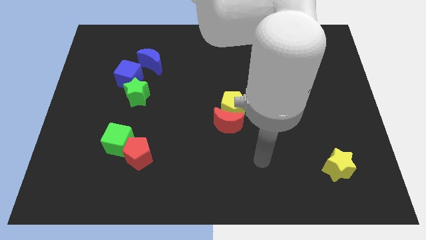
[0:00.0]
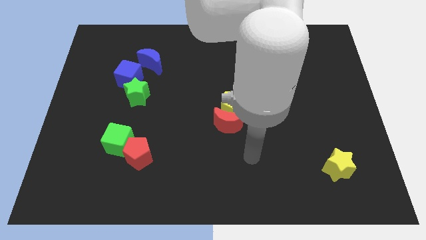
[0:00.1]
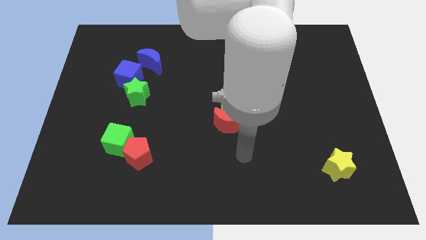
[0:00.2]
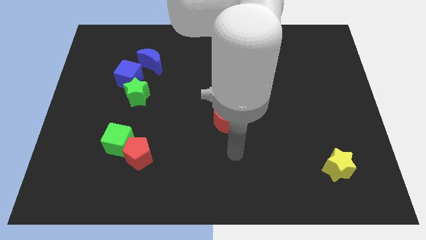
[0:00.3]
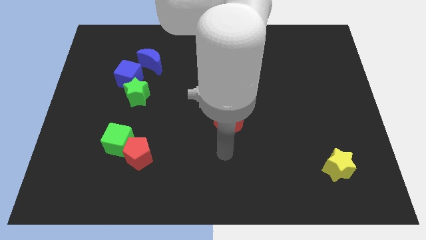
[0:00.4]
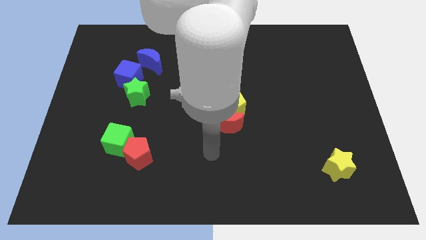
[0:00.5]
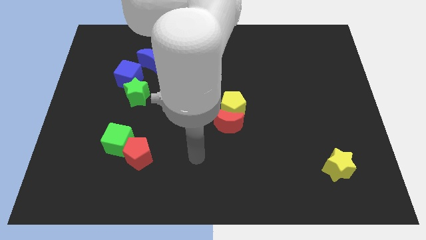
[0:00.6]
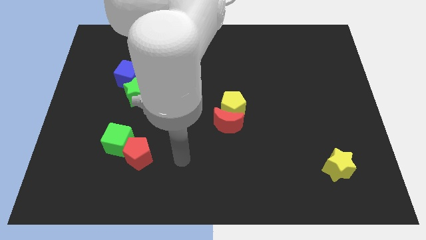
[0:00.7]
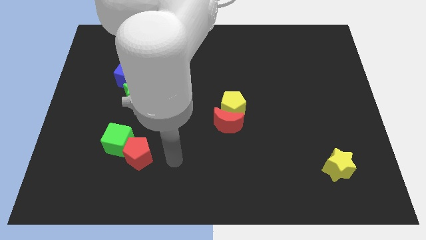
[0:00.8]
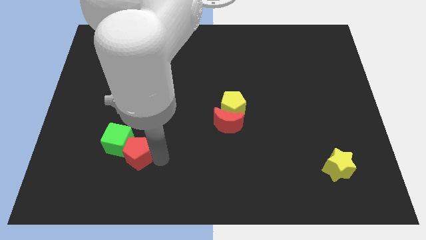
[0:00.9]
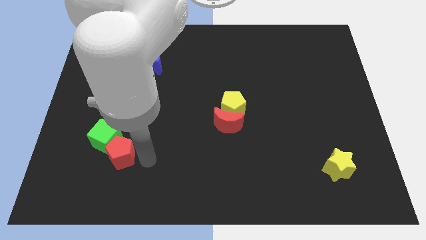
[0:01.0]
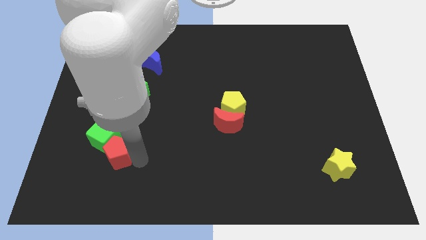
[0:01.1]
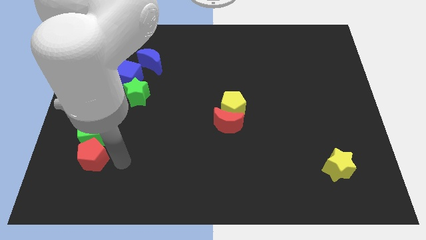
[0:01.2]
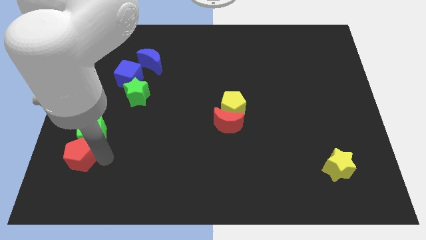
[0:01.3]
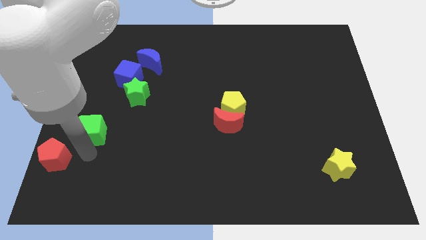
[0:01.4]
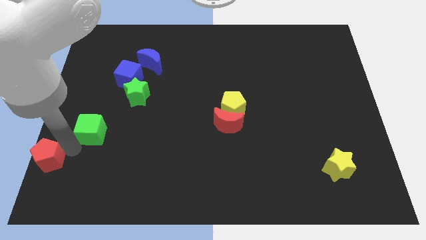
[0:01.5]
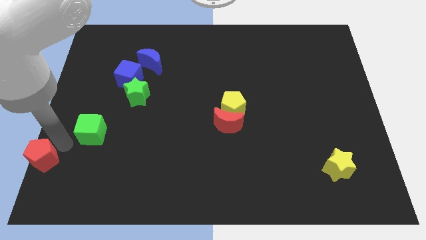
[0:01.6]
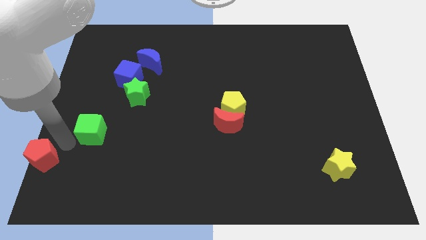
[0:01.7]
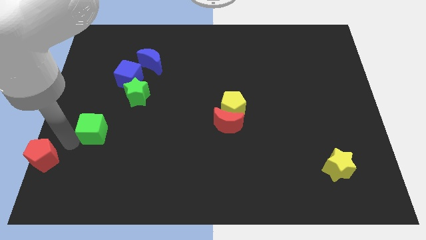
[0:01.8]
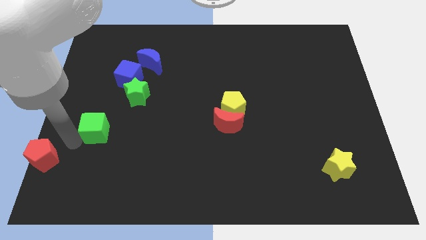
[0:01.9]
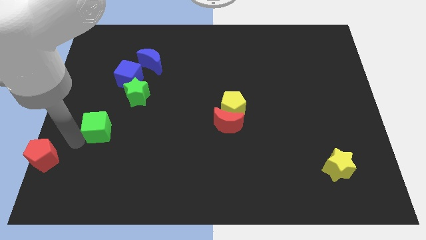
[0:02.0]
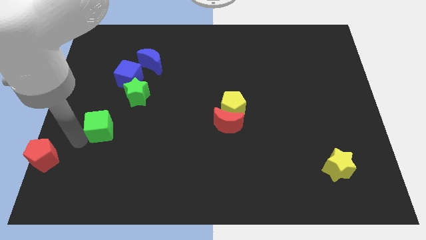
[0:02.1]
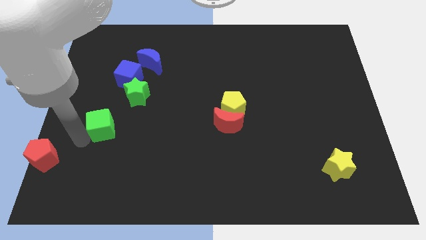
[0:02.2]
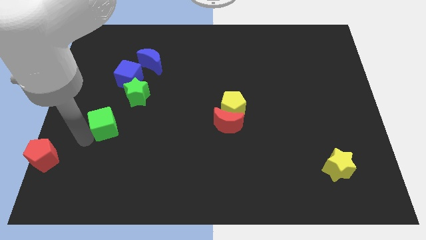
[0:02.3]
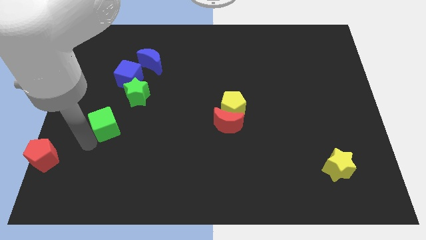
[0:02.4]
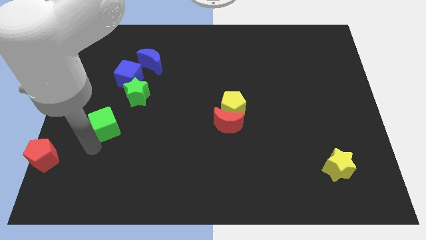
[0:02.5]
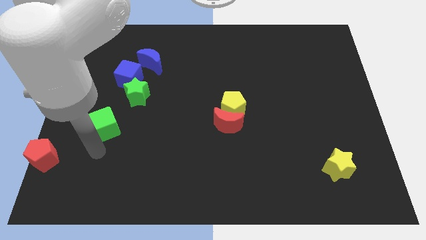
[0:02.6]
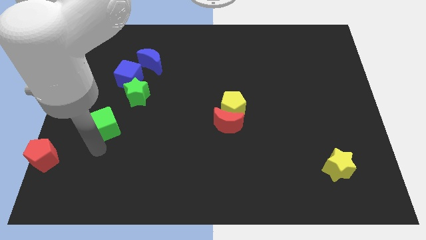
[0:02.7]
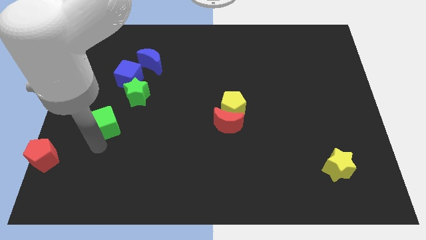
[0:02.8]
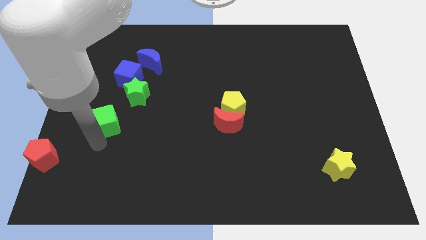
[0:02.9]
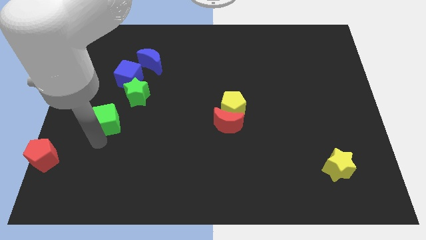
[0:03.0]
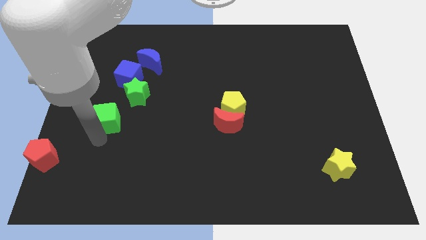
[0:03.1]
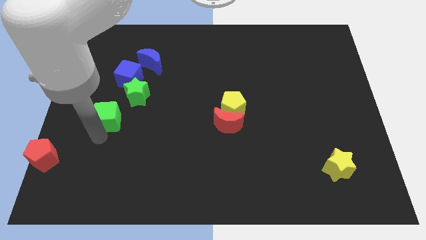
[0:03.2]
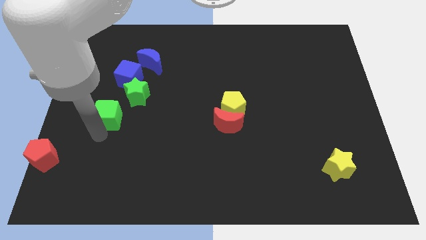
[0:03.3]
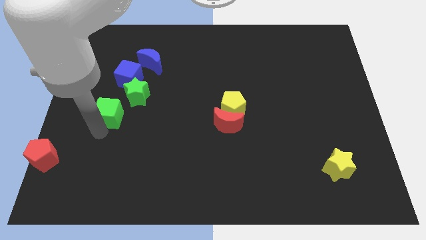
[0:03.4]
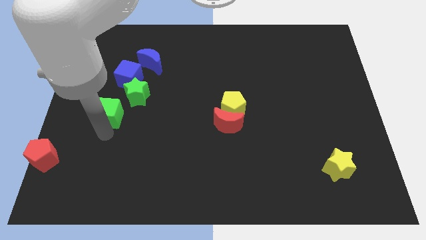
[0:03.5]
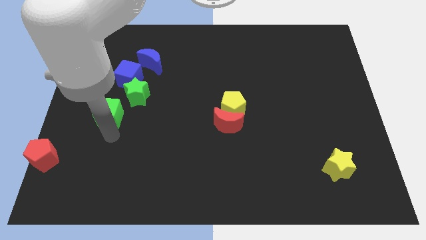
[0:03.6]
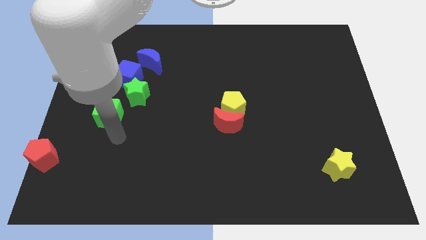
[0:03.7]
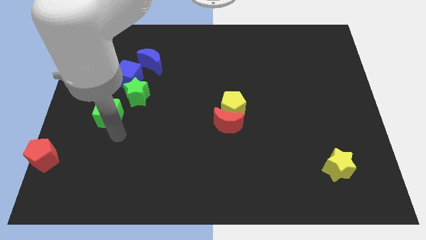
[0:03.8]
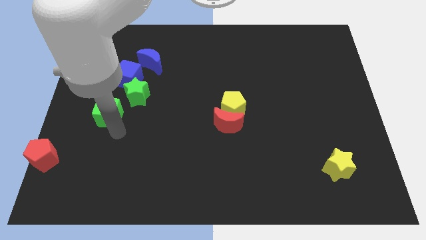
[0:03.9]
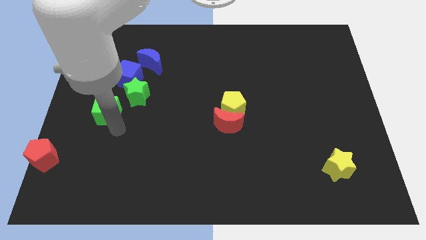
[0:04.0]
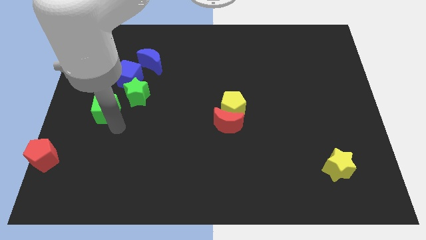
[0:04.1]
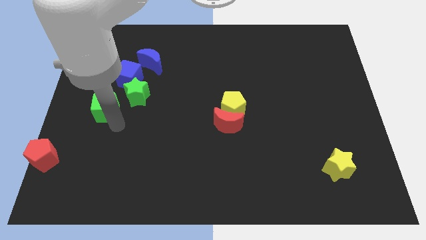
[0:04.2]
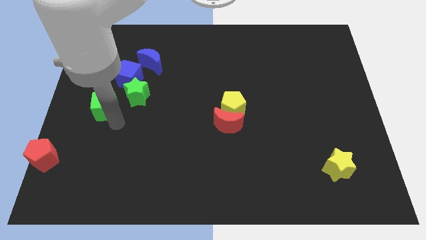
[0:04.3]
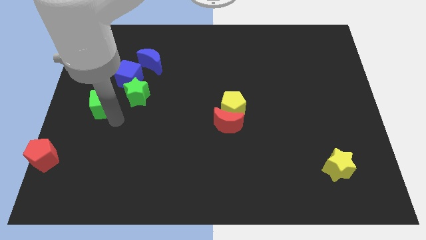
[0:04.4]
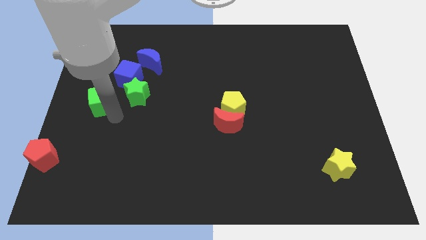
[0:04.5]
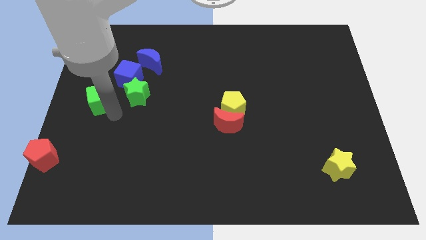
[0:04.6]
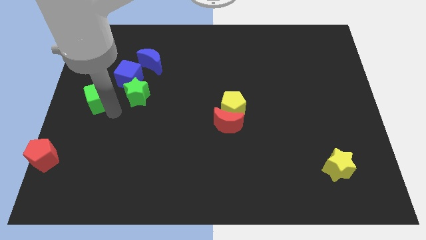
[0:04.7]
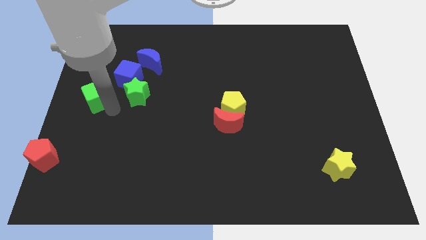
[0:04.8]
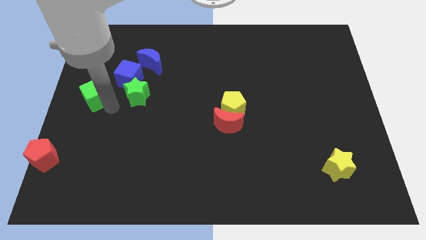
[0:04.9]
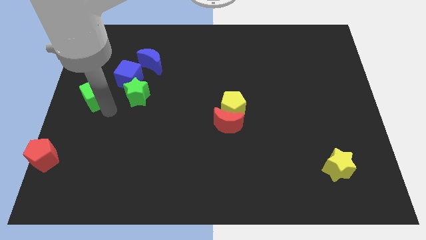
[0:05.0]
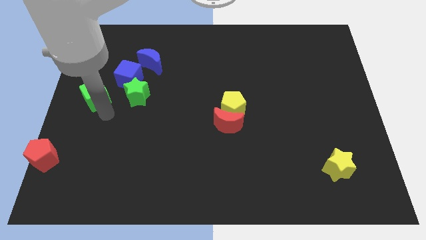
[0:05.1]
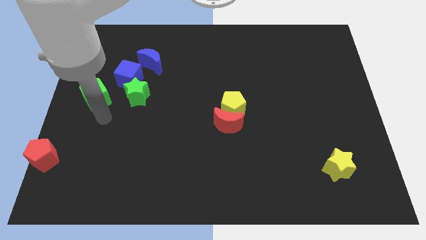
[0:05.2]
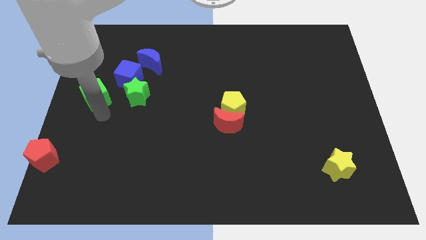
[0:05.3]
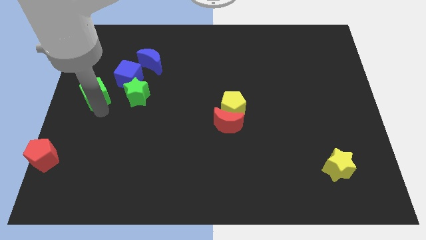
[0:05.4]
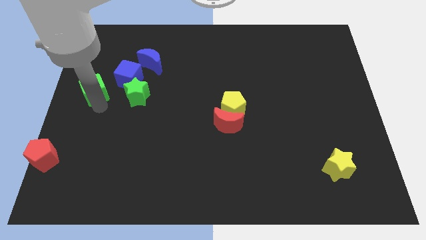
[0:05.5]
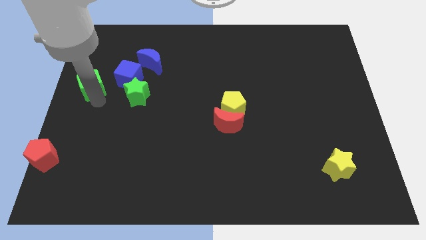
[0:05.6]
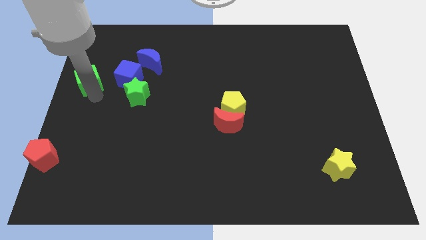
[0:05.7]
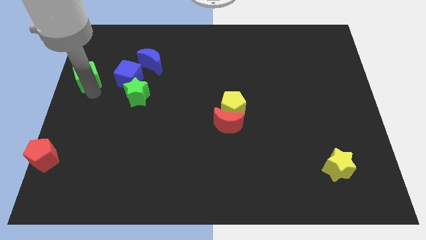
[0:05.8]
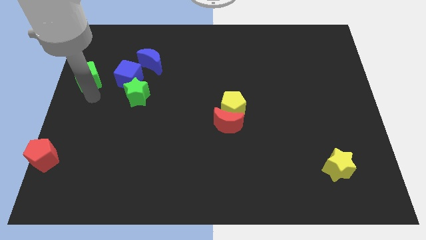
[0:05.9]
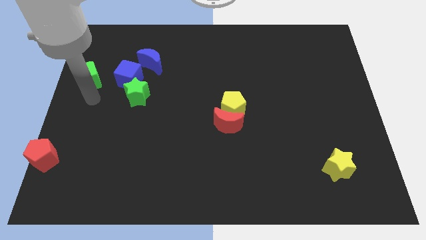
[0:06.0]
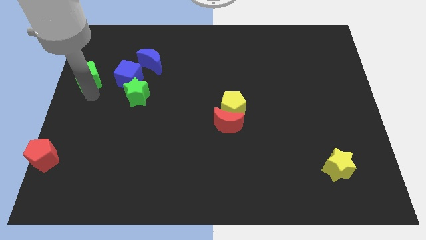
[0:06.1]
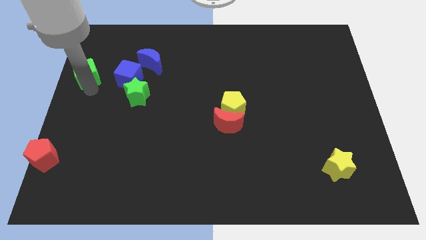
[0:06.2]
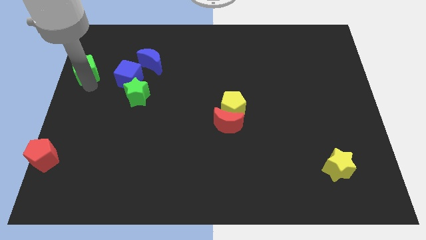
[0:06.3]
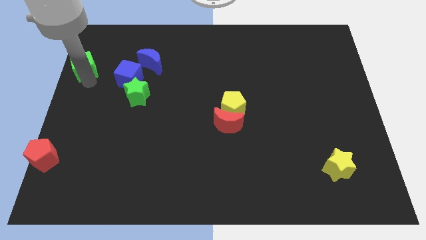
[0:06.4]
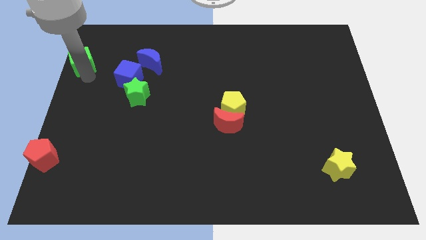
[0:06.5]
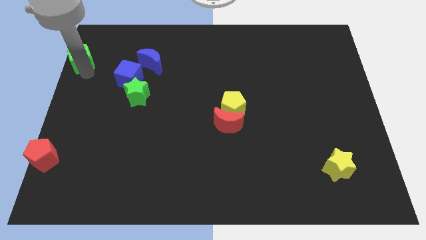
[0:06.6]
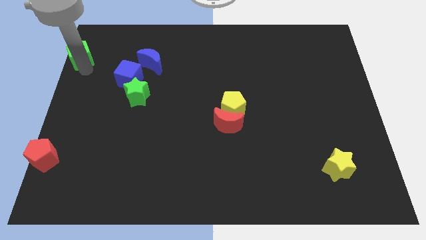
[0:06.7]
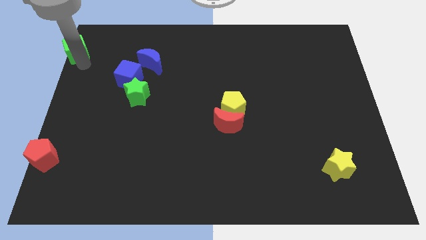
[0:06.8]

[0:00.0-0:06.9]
put the green cube to the top left of the board

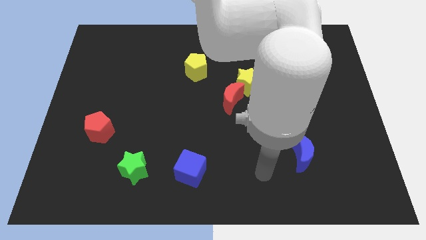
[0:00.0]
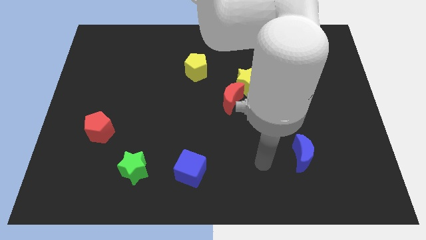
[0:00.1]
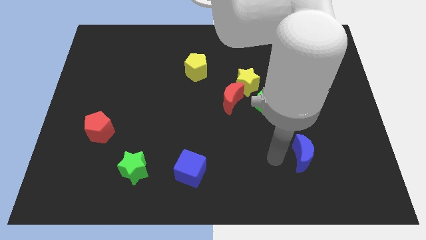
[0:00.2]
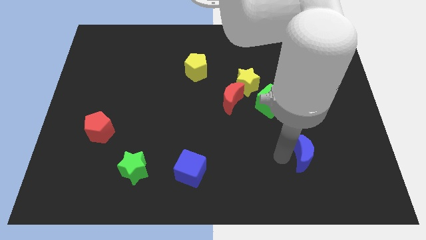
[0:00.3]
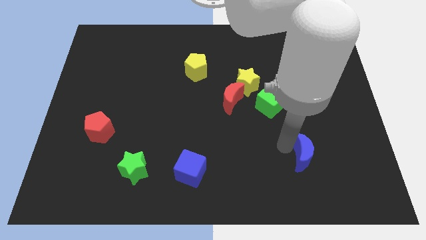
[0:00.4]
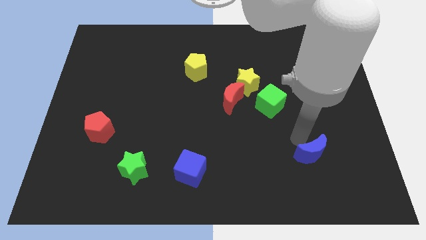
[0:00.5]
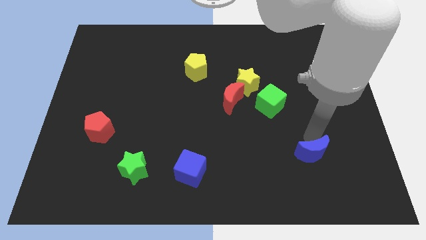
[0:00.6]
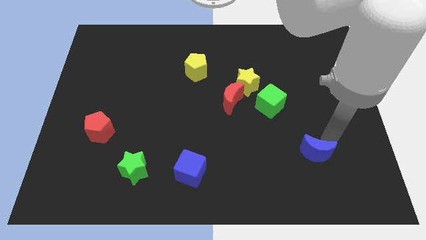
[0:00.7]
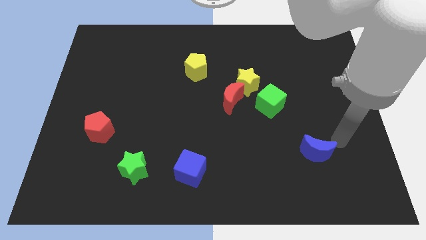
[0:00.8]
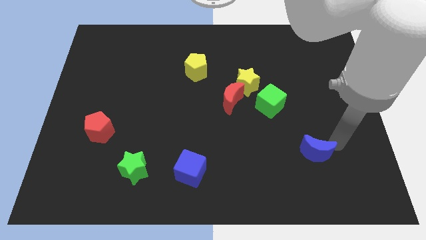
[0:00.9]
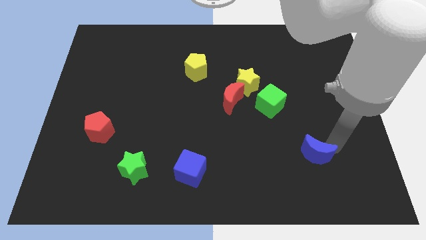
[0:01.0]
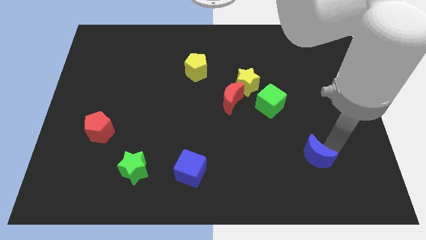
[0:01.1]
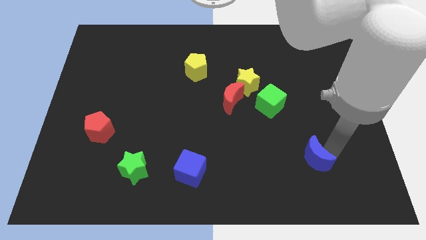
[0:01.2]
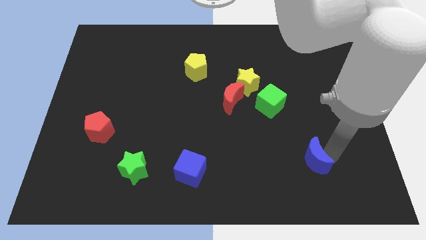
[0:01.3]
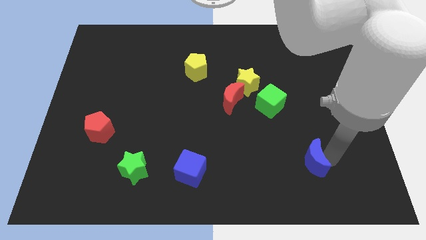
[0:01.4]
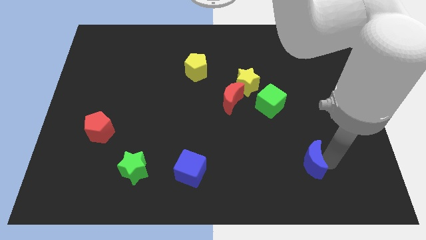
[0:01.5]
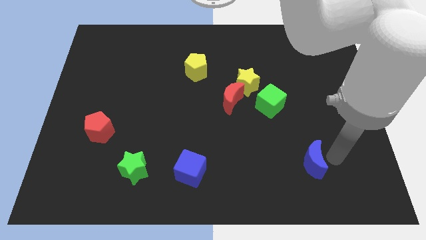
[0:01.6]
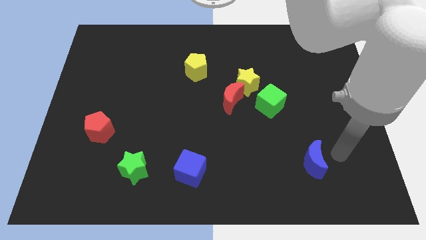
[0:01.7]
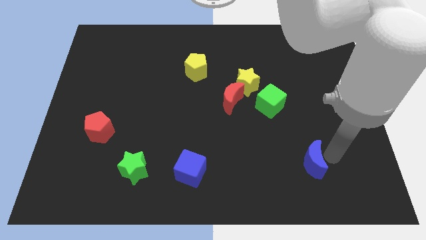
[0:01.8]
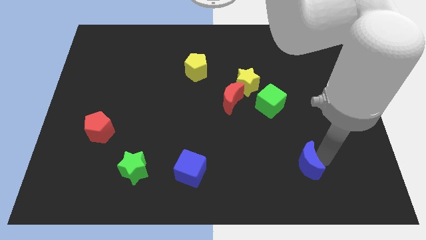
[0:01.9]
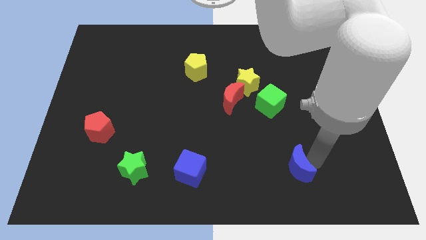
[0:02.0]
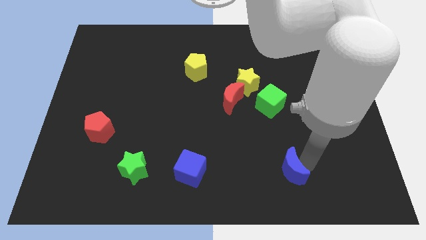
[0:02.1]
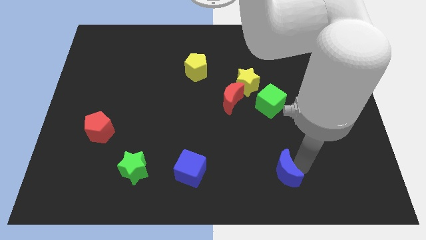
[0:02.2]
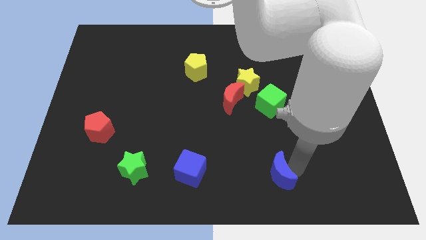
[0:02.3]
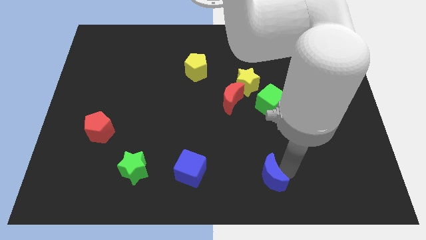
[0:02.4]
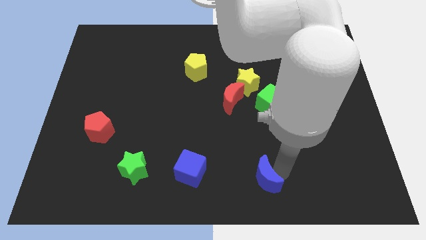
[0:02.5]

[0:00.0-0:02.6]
push the blue moon to the bottom
